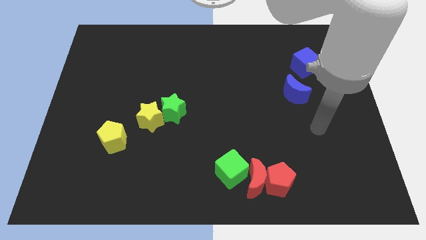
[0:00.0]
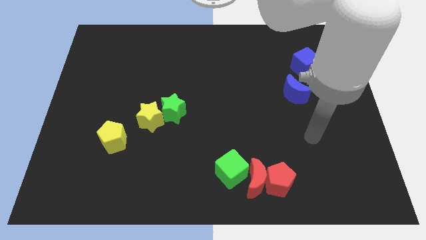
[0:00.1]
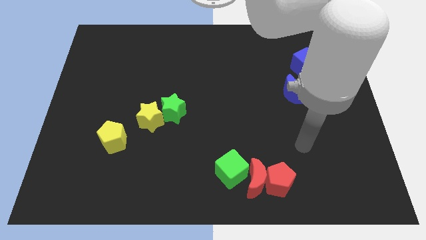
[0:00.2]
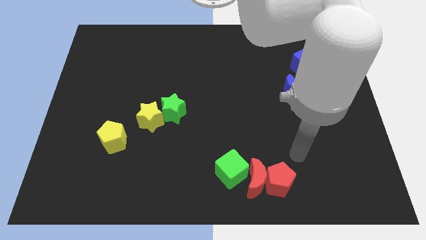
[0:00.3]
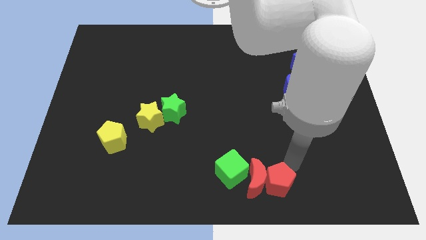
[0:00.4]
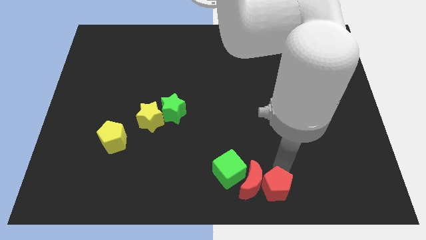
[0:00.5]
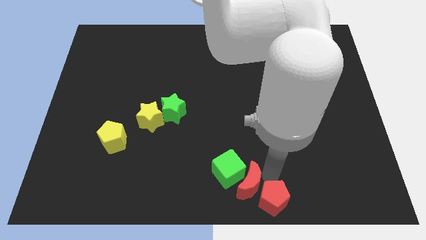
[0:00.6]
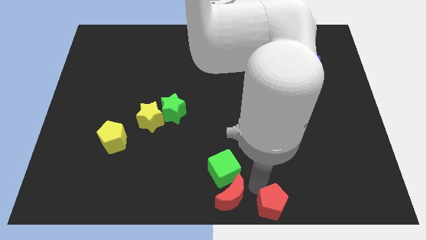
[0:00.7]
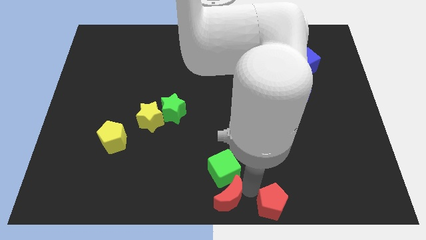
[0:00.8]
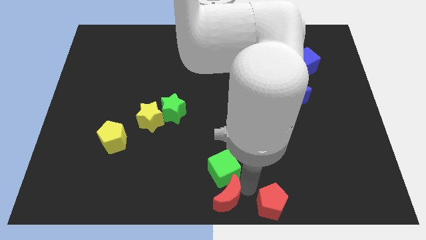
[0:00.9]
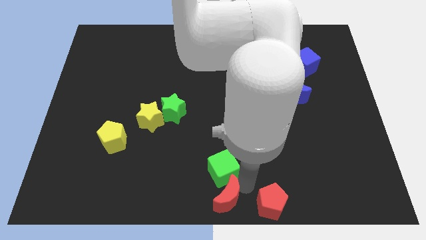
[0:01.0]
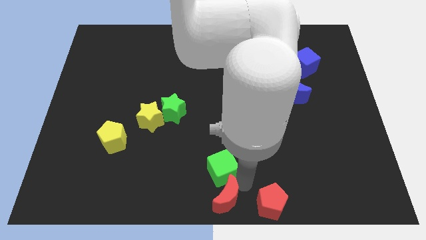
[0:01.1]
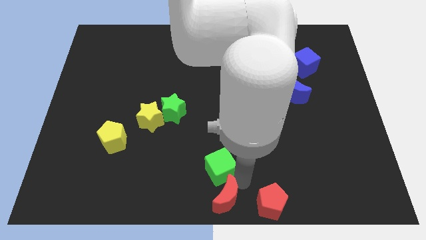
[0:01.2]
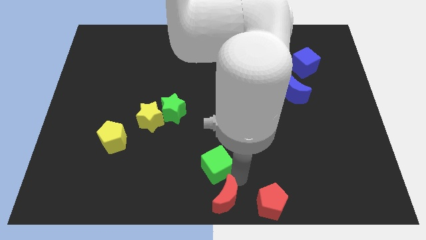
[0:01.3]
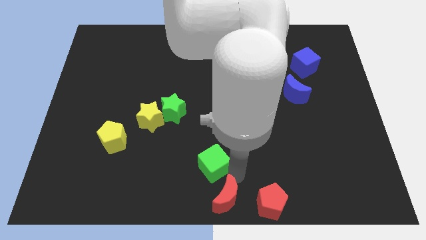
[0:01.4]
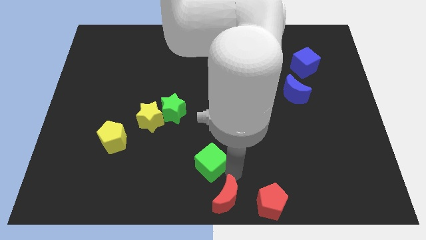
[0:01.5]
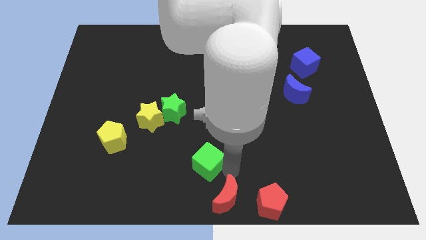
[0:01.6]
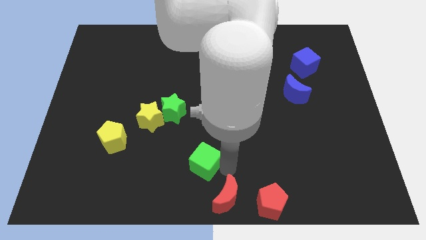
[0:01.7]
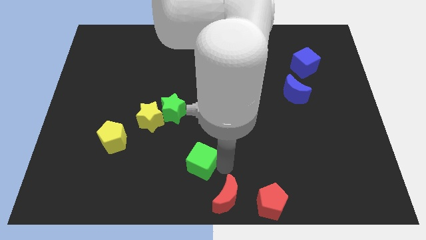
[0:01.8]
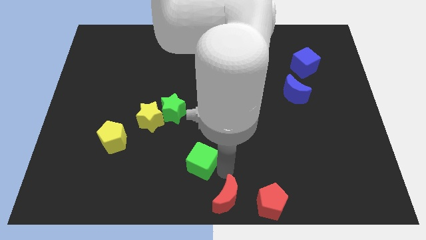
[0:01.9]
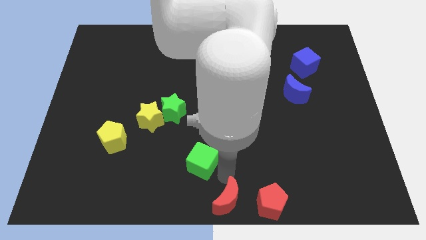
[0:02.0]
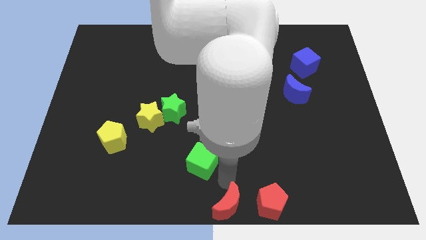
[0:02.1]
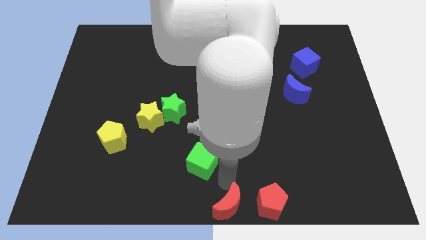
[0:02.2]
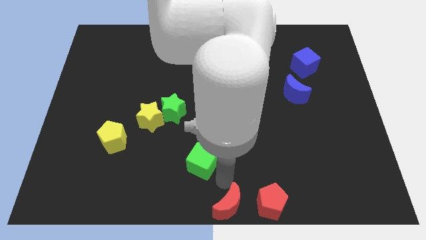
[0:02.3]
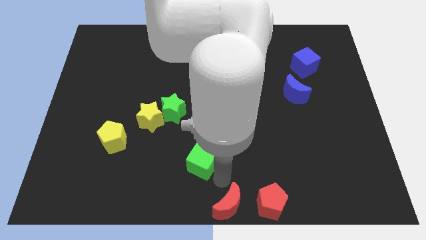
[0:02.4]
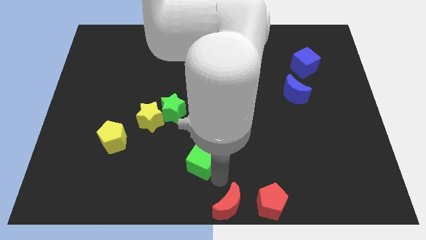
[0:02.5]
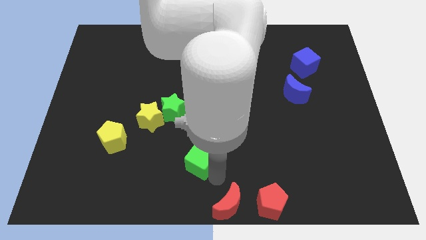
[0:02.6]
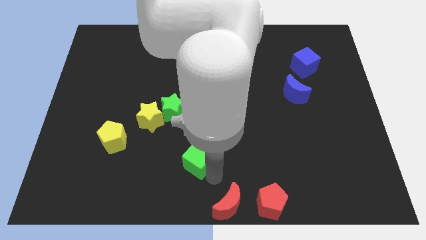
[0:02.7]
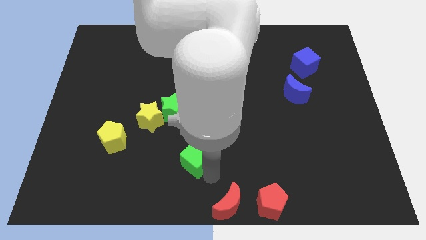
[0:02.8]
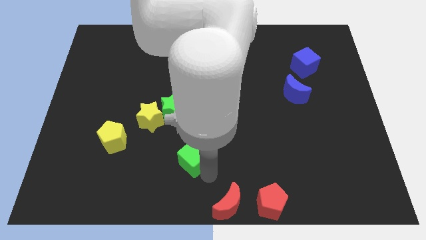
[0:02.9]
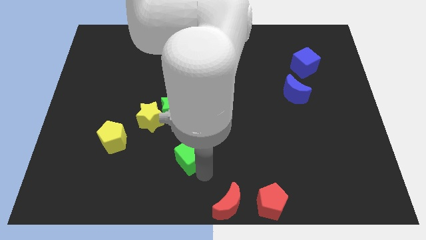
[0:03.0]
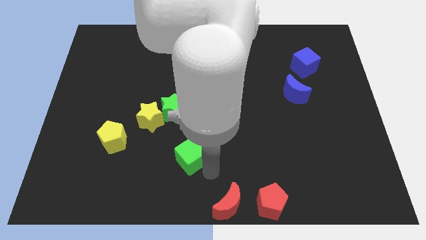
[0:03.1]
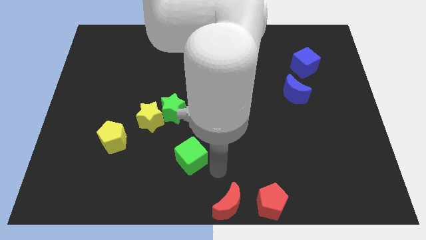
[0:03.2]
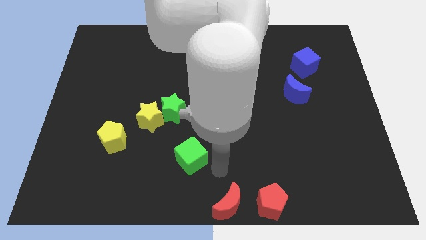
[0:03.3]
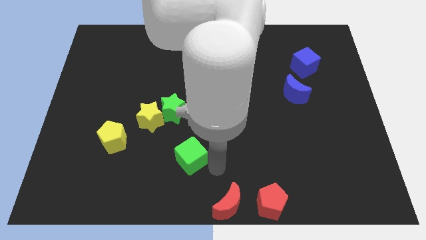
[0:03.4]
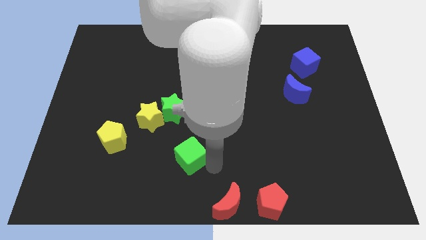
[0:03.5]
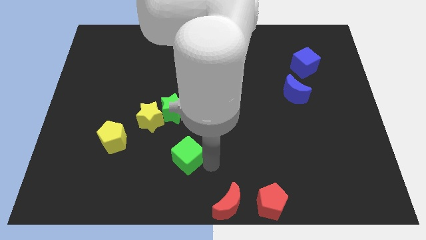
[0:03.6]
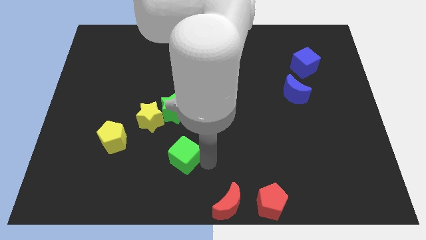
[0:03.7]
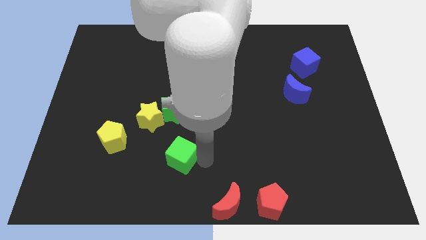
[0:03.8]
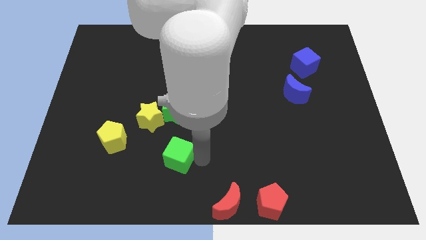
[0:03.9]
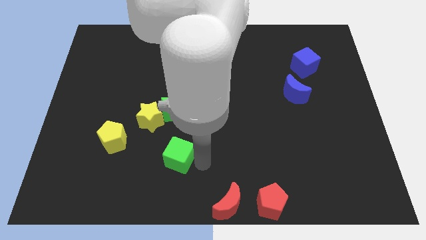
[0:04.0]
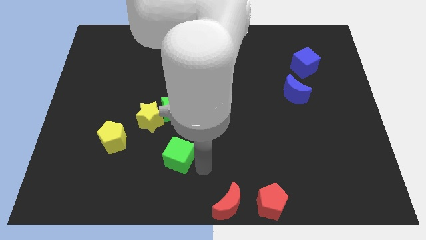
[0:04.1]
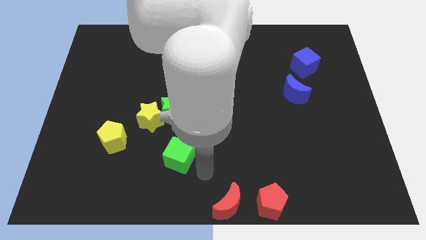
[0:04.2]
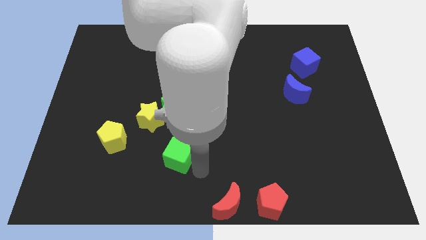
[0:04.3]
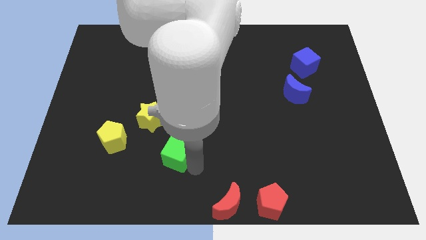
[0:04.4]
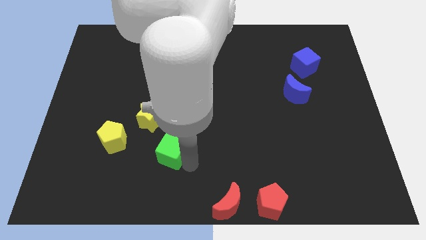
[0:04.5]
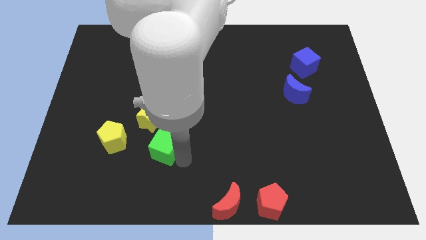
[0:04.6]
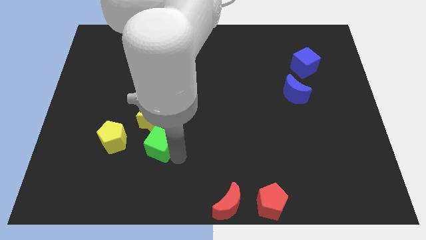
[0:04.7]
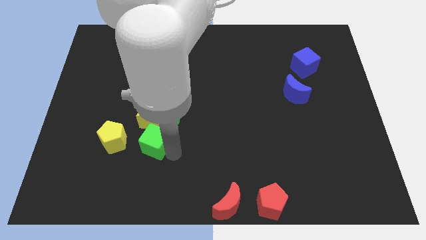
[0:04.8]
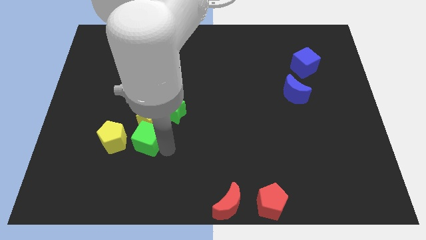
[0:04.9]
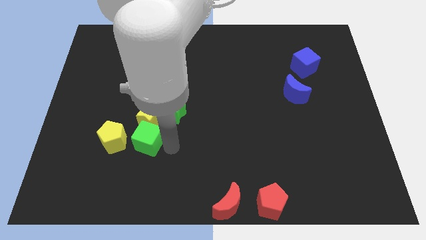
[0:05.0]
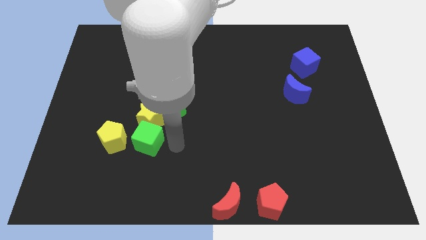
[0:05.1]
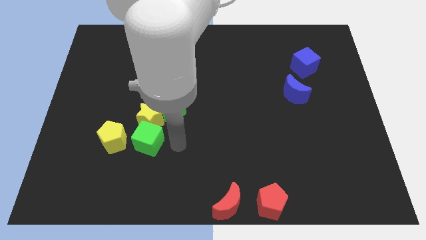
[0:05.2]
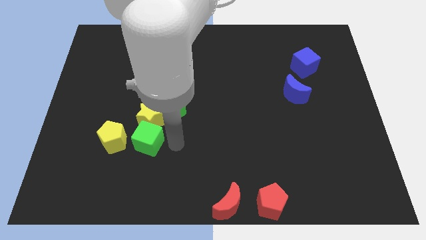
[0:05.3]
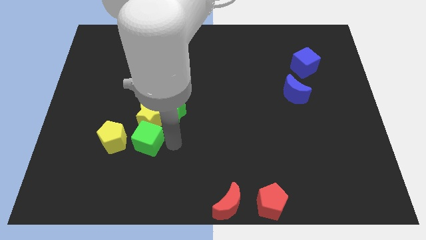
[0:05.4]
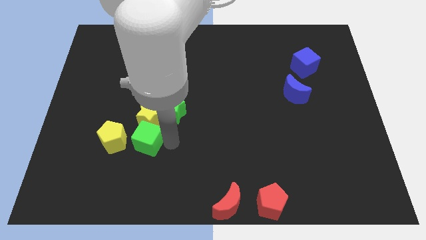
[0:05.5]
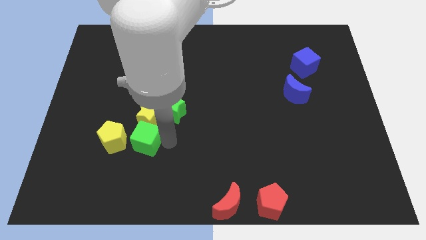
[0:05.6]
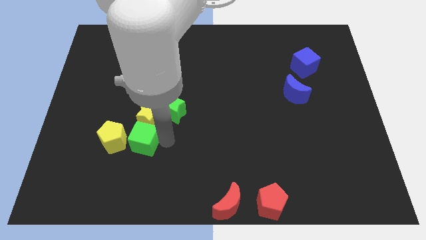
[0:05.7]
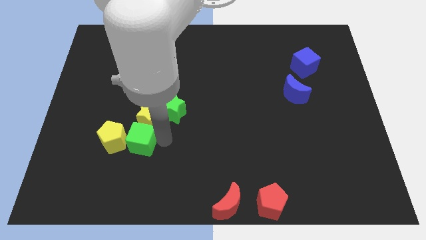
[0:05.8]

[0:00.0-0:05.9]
move the green cube close to the yellow pentagon

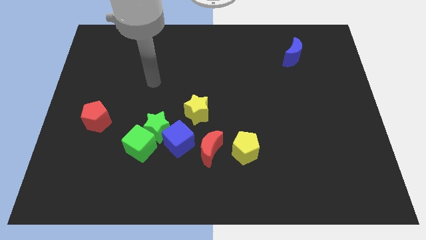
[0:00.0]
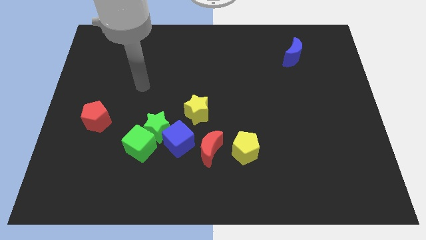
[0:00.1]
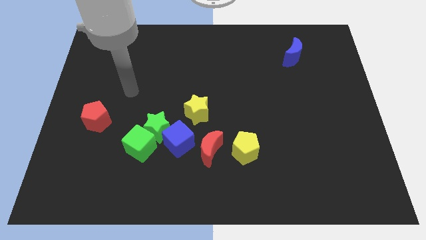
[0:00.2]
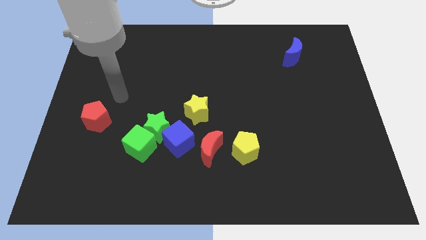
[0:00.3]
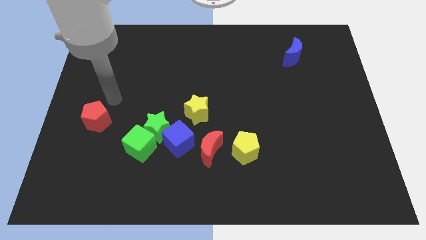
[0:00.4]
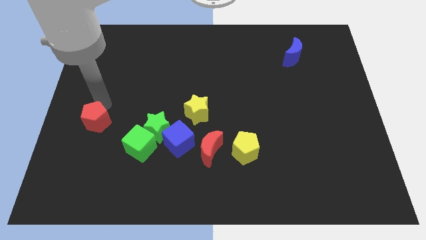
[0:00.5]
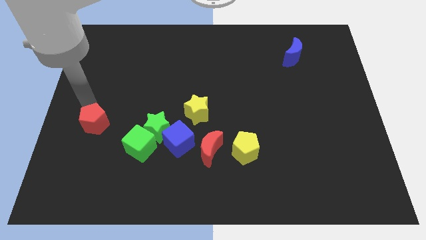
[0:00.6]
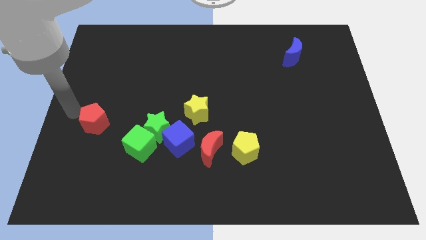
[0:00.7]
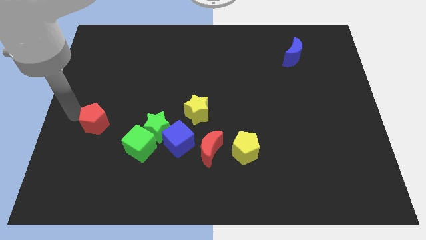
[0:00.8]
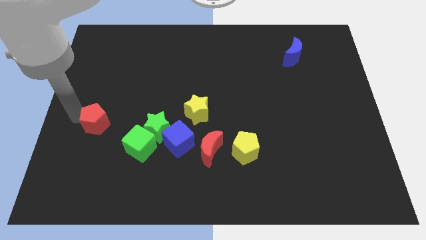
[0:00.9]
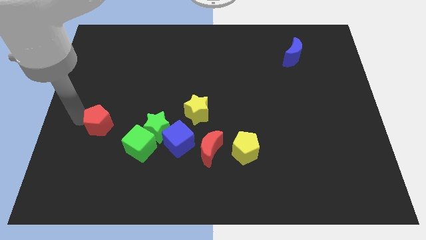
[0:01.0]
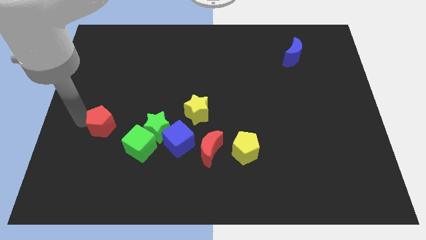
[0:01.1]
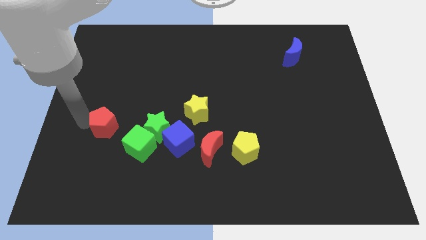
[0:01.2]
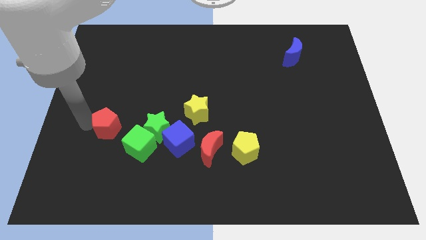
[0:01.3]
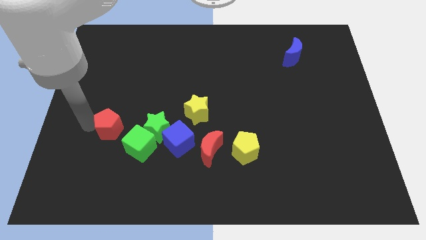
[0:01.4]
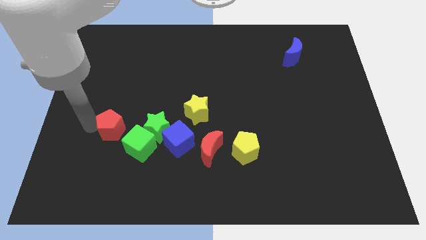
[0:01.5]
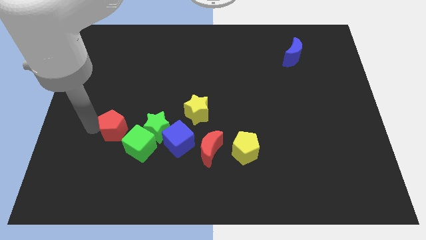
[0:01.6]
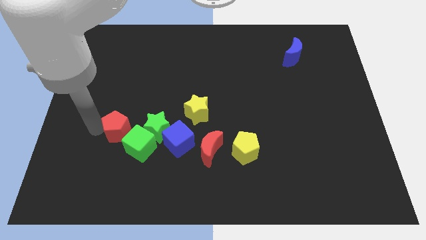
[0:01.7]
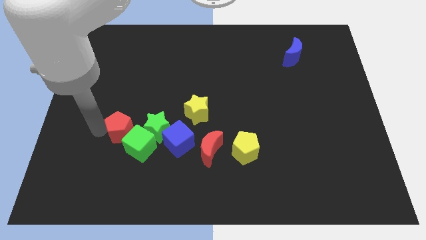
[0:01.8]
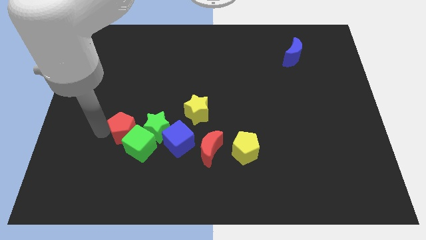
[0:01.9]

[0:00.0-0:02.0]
move the red pentagon close to the green cube
